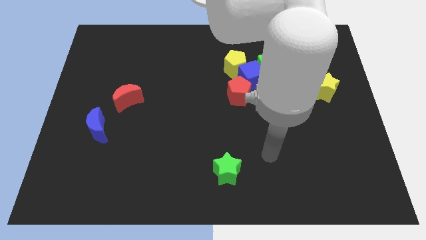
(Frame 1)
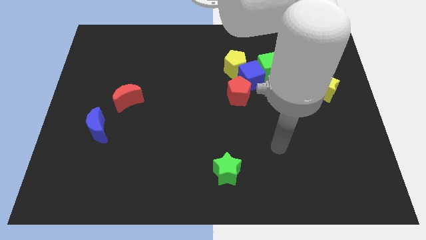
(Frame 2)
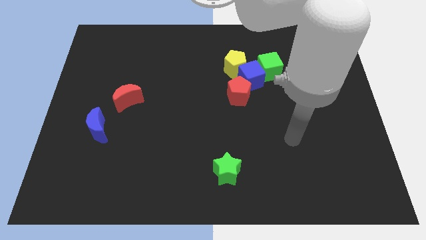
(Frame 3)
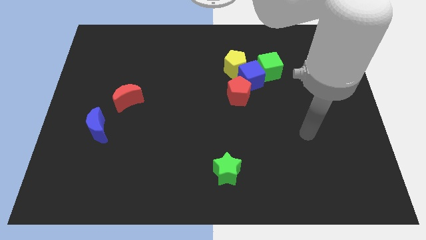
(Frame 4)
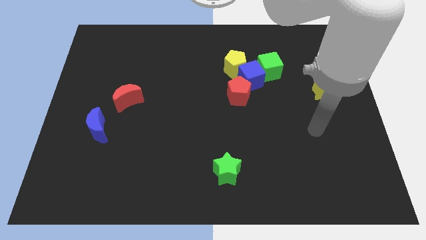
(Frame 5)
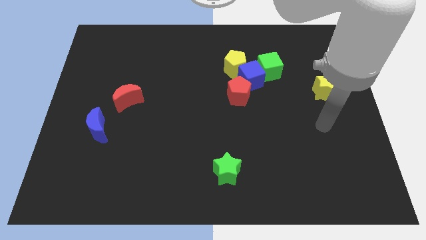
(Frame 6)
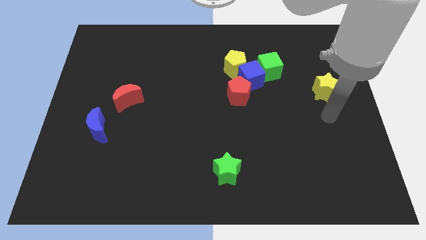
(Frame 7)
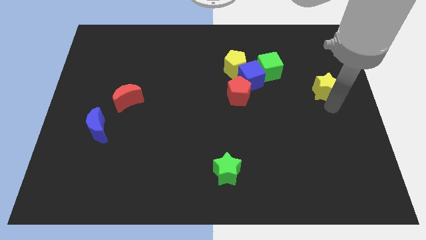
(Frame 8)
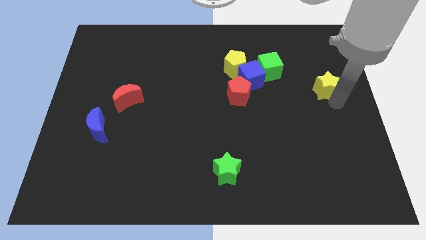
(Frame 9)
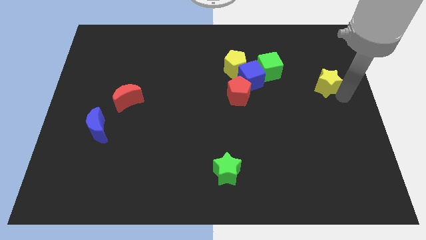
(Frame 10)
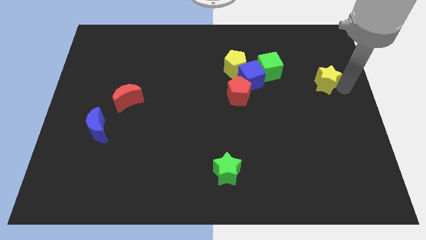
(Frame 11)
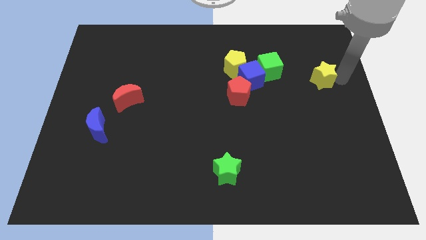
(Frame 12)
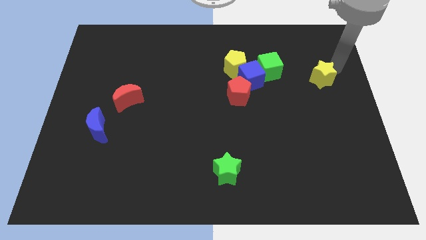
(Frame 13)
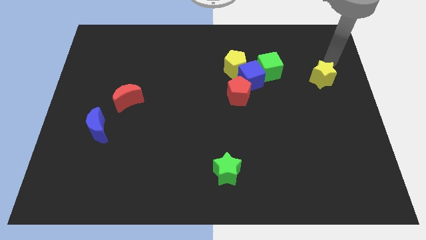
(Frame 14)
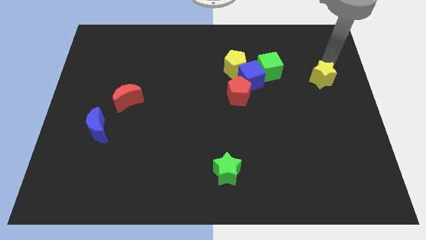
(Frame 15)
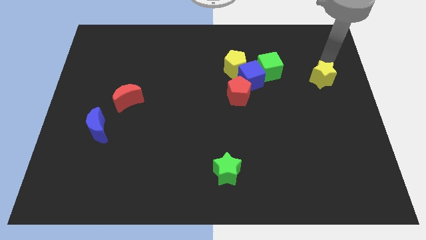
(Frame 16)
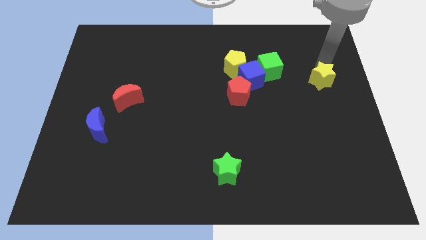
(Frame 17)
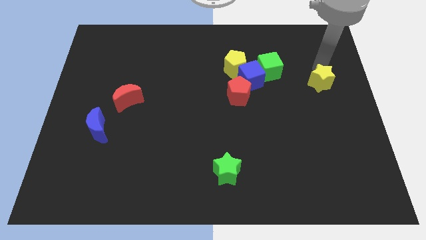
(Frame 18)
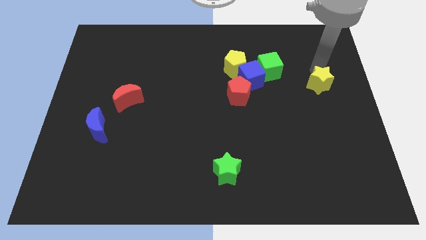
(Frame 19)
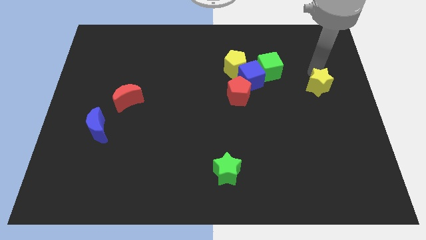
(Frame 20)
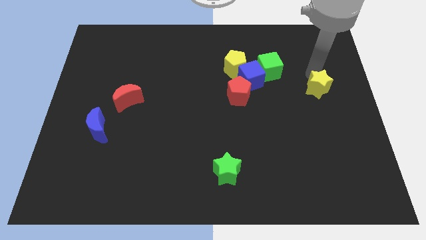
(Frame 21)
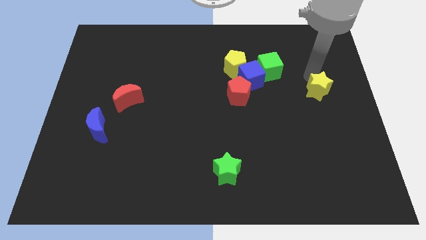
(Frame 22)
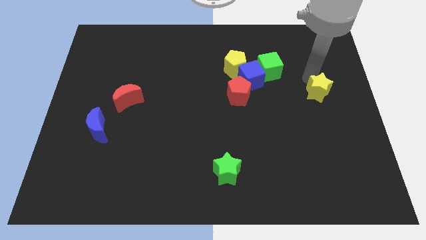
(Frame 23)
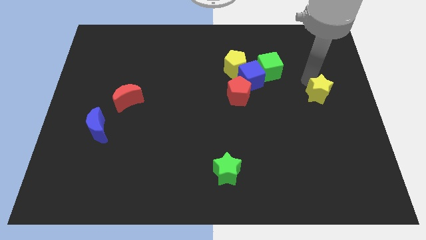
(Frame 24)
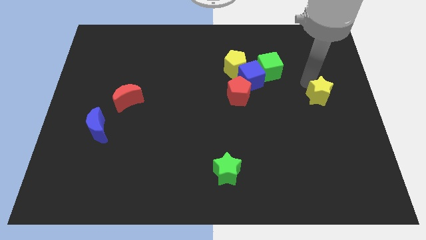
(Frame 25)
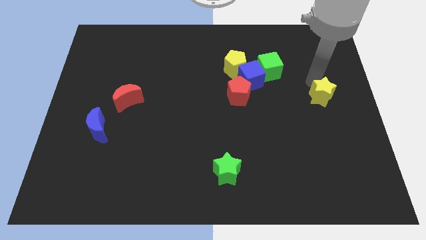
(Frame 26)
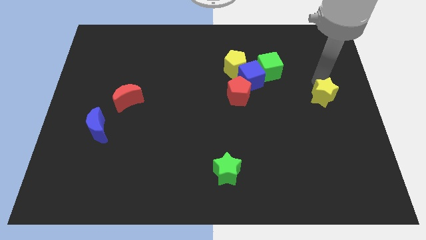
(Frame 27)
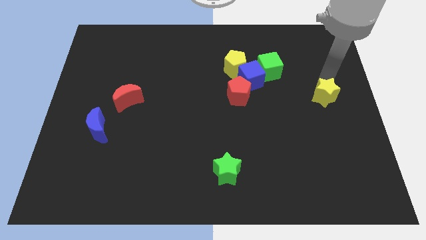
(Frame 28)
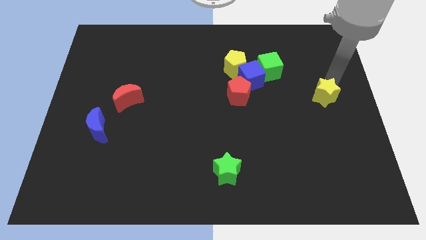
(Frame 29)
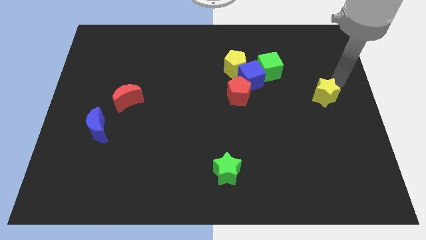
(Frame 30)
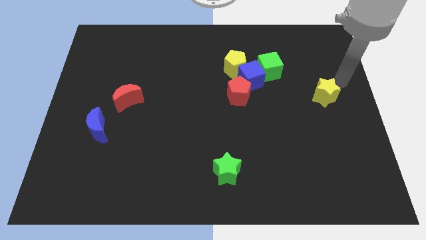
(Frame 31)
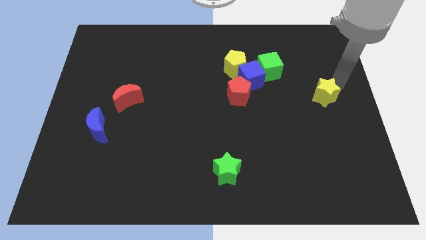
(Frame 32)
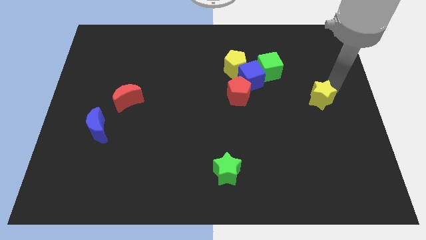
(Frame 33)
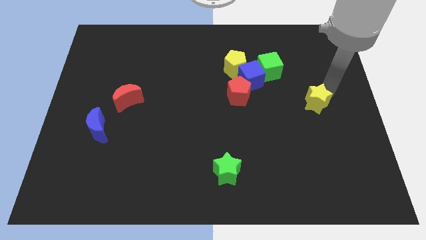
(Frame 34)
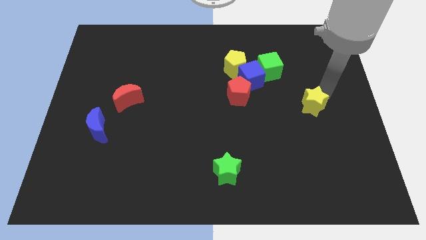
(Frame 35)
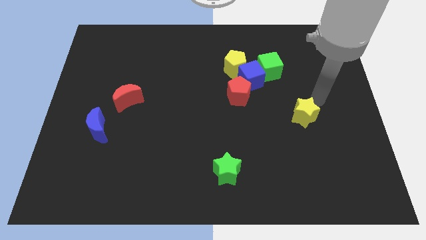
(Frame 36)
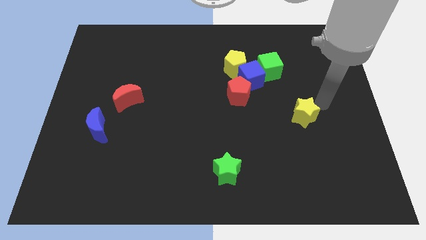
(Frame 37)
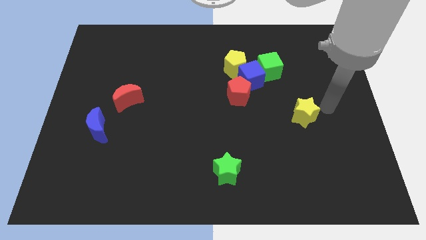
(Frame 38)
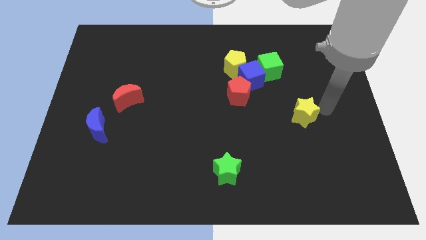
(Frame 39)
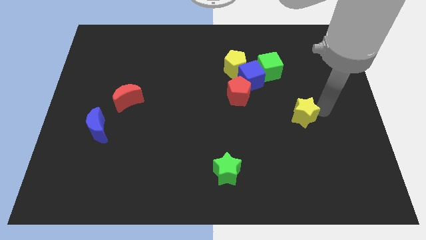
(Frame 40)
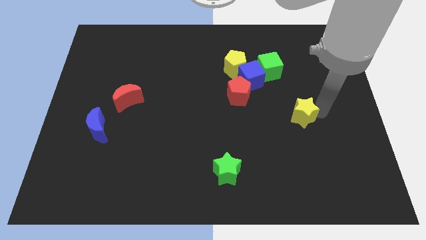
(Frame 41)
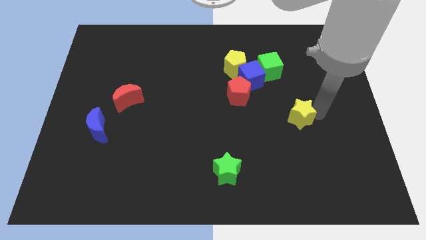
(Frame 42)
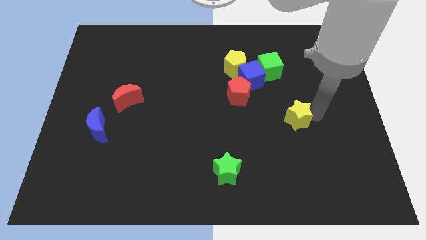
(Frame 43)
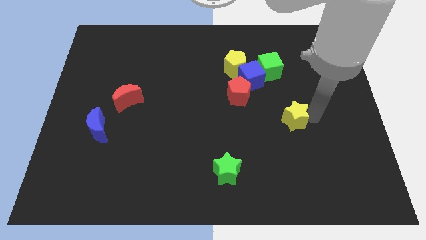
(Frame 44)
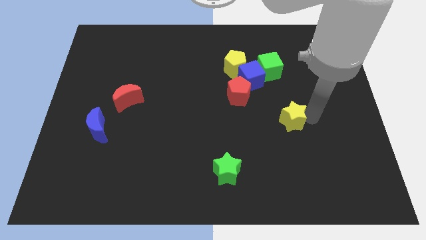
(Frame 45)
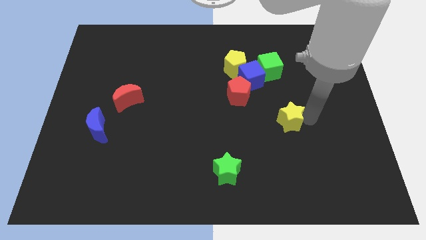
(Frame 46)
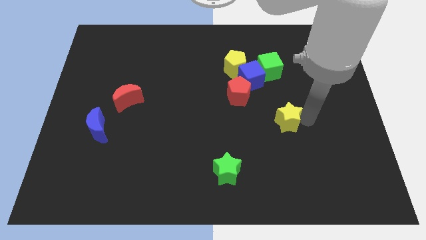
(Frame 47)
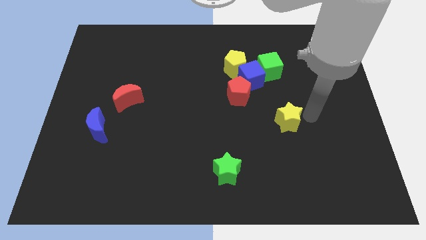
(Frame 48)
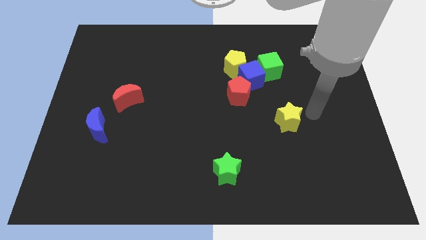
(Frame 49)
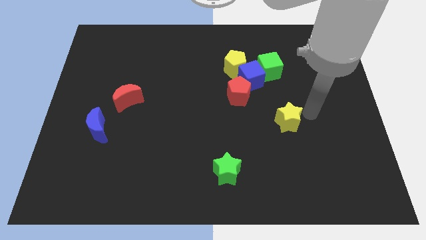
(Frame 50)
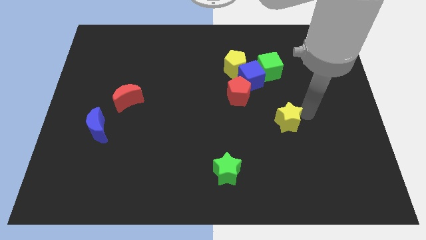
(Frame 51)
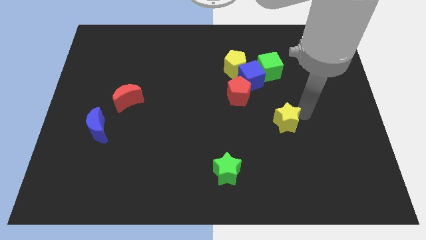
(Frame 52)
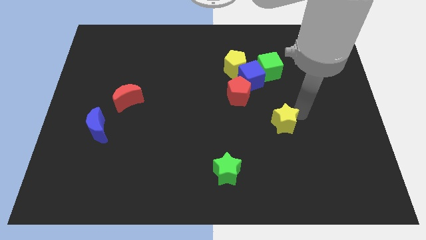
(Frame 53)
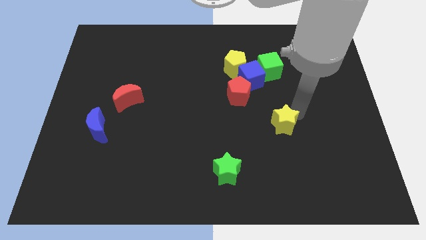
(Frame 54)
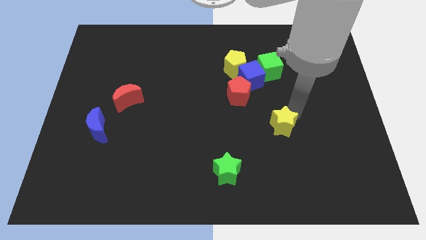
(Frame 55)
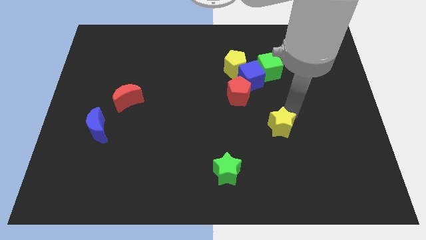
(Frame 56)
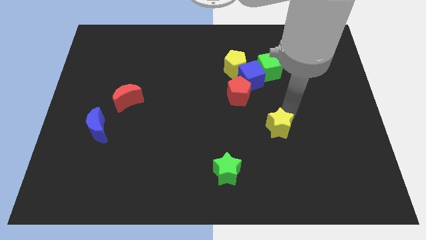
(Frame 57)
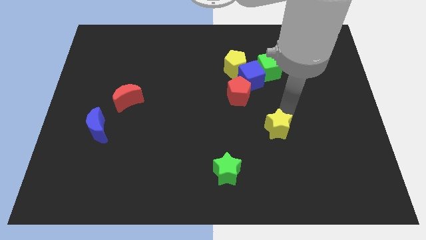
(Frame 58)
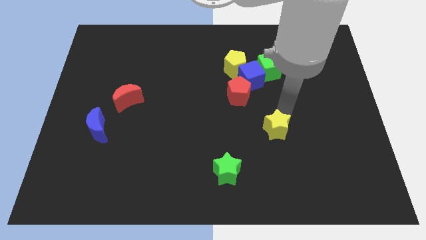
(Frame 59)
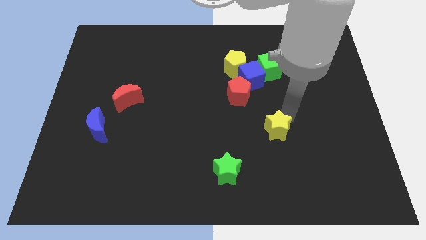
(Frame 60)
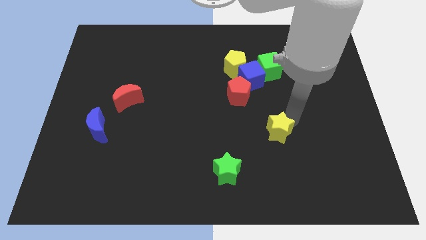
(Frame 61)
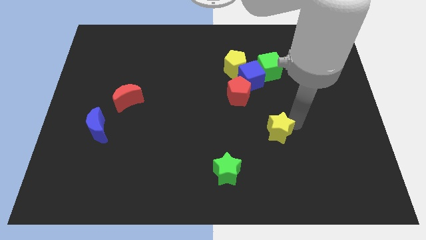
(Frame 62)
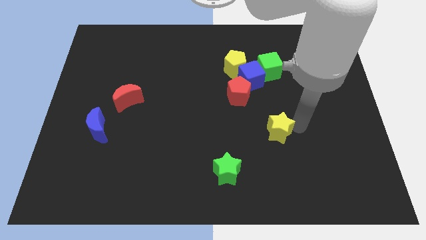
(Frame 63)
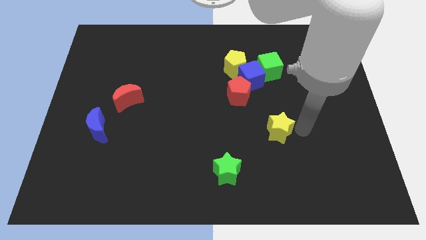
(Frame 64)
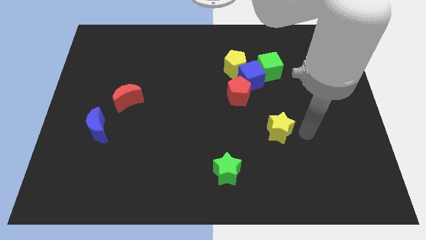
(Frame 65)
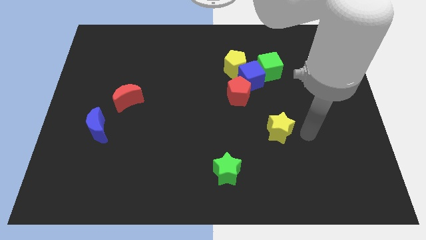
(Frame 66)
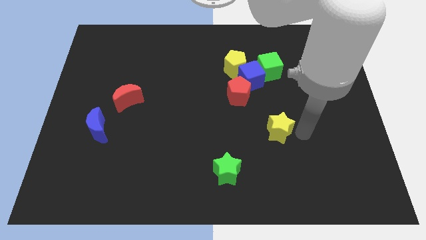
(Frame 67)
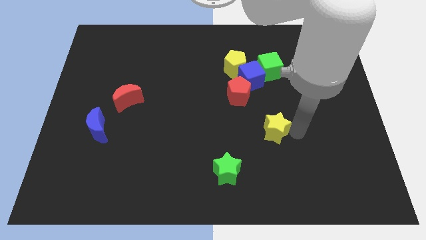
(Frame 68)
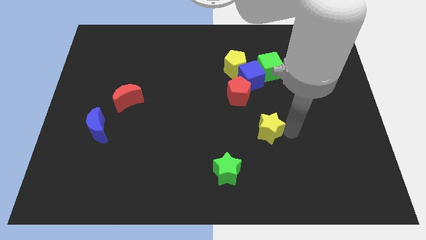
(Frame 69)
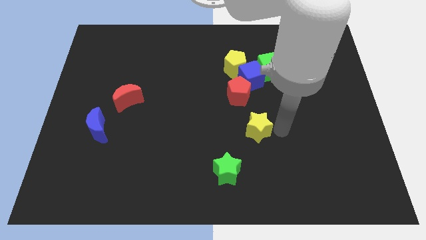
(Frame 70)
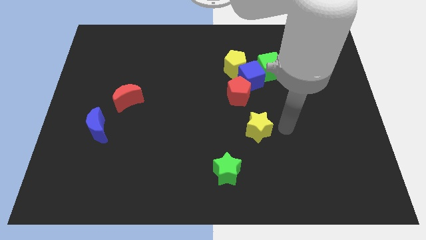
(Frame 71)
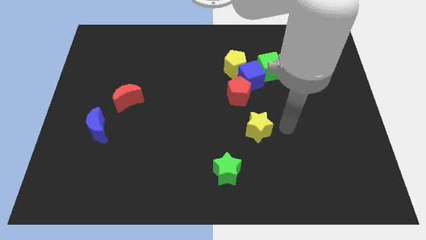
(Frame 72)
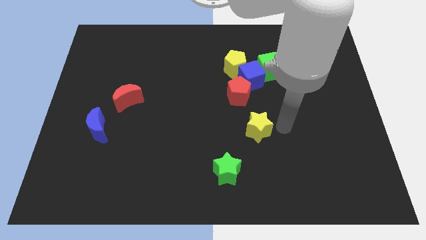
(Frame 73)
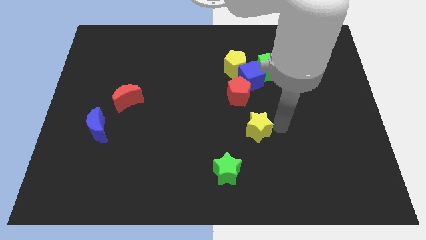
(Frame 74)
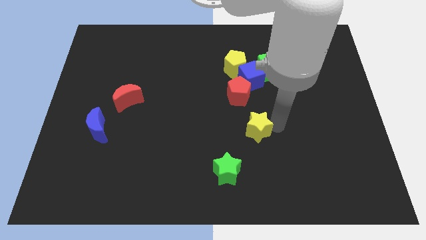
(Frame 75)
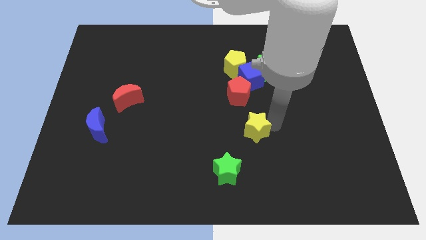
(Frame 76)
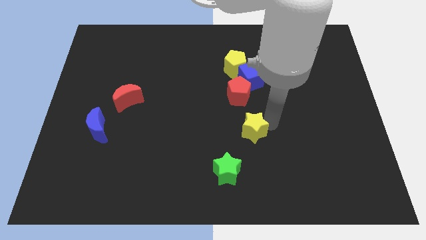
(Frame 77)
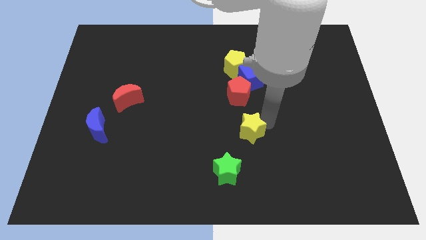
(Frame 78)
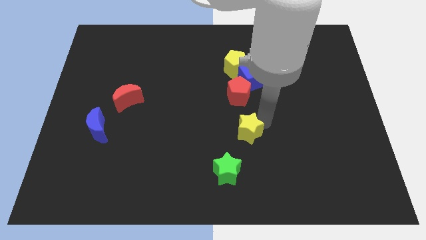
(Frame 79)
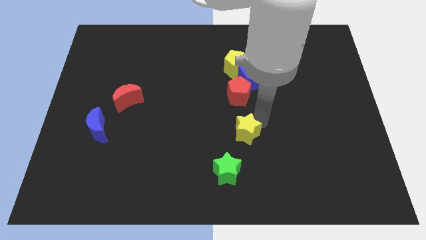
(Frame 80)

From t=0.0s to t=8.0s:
move the yellow star above the green star
